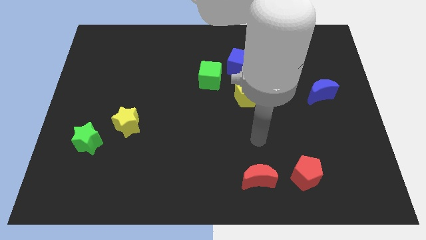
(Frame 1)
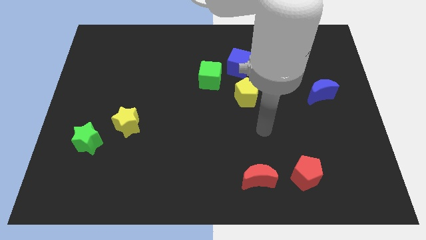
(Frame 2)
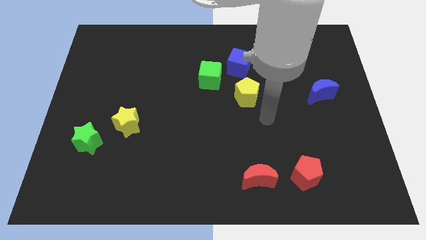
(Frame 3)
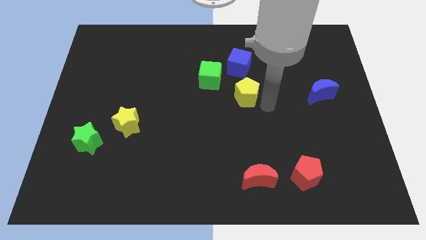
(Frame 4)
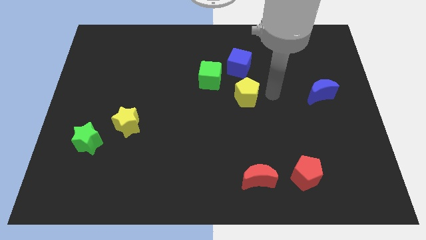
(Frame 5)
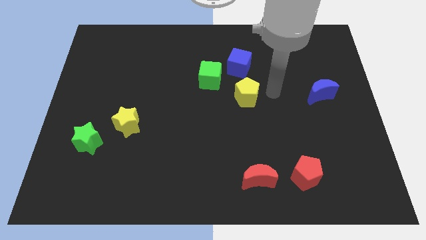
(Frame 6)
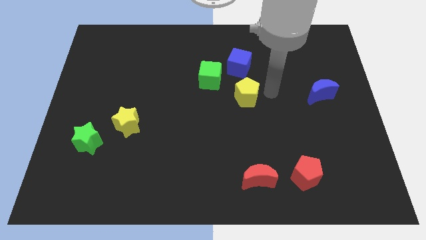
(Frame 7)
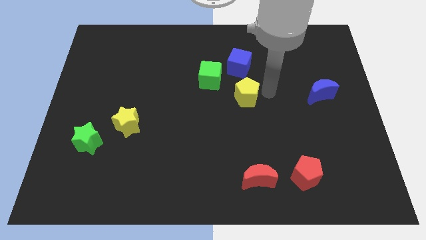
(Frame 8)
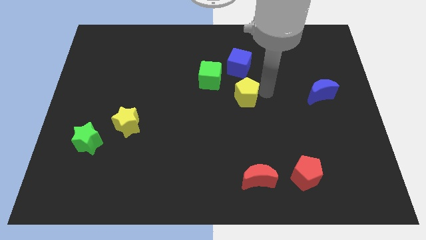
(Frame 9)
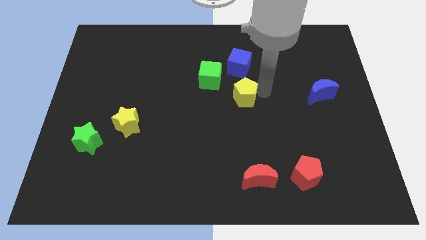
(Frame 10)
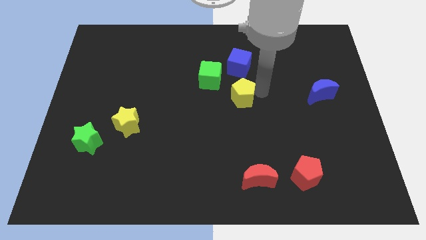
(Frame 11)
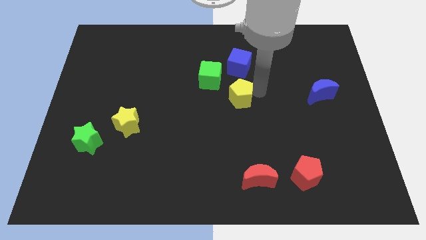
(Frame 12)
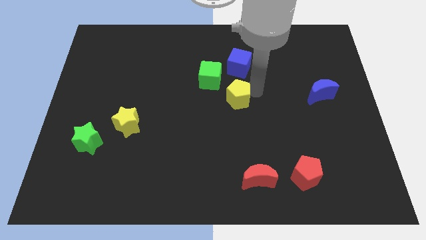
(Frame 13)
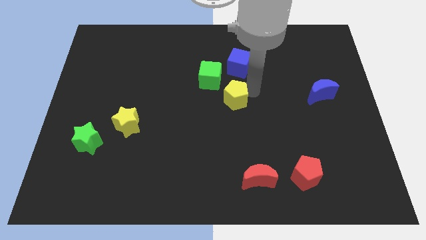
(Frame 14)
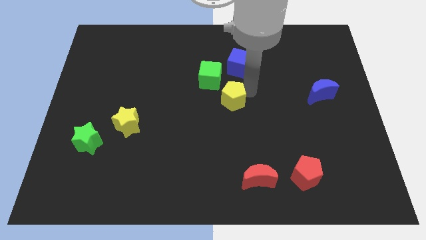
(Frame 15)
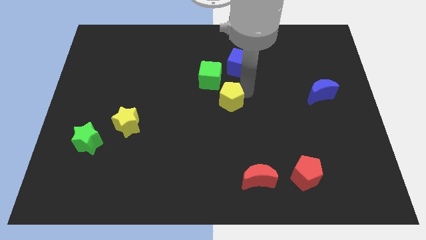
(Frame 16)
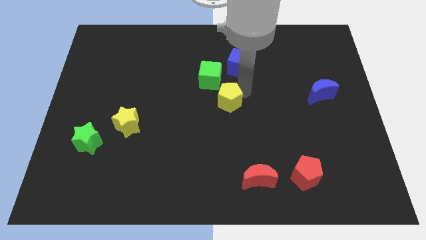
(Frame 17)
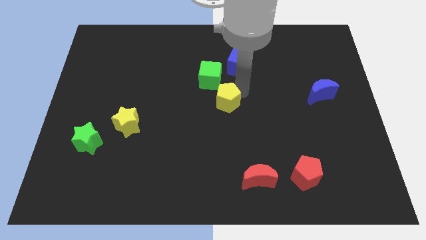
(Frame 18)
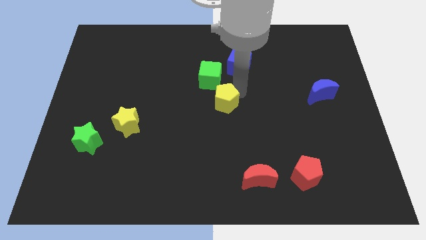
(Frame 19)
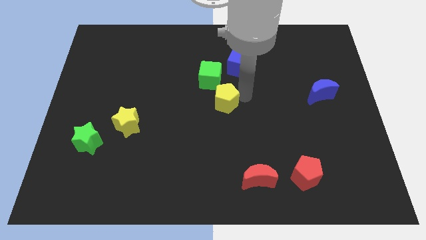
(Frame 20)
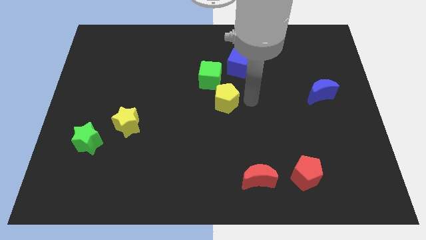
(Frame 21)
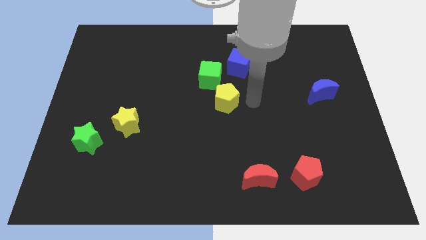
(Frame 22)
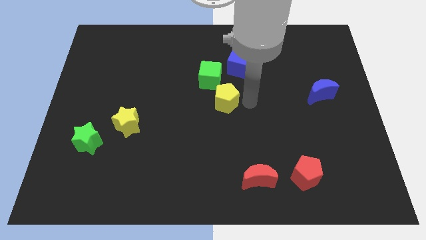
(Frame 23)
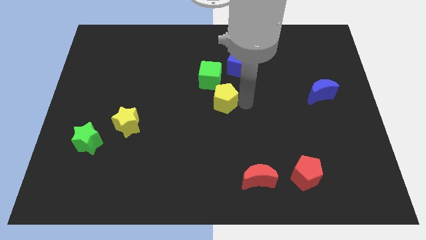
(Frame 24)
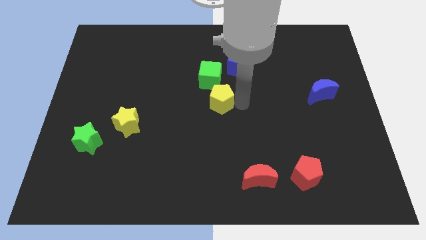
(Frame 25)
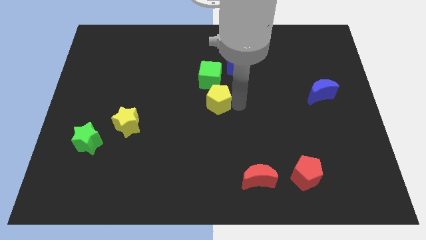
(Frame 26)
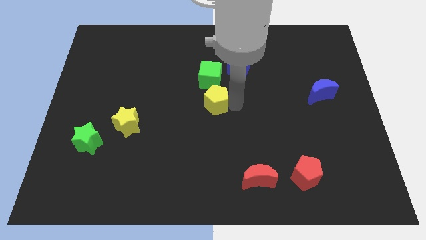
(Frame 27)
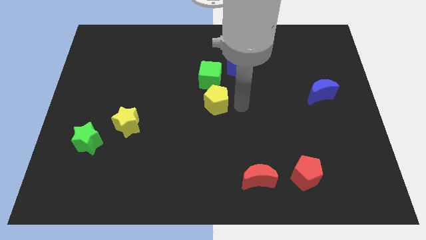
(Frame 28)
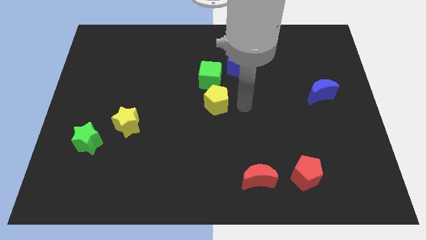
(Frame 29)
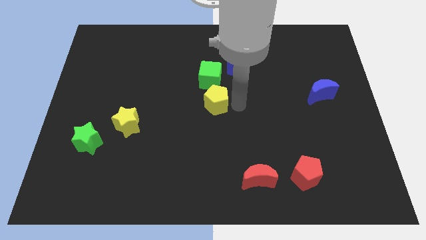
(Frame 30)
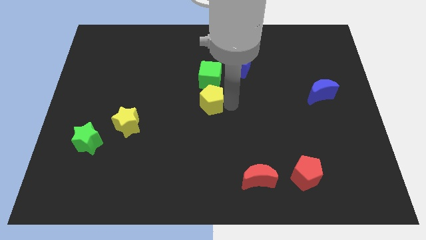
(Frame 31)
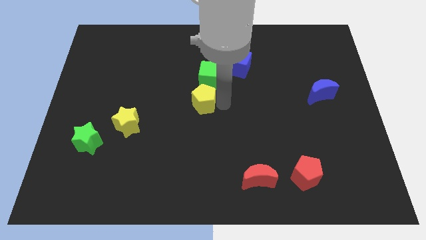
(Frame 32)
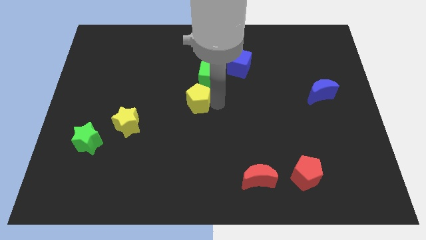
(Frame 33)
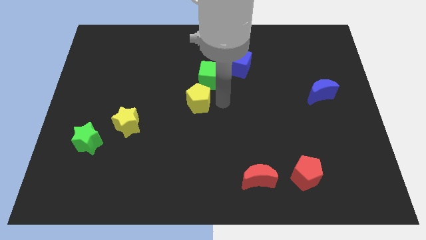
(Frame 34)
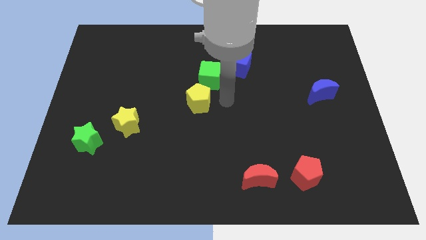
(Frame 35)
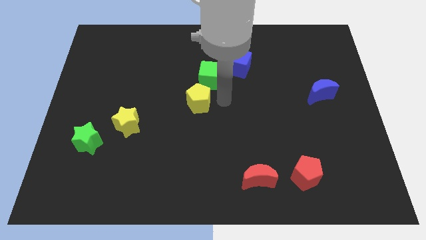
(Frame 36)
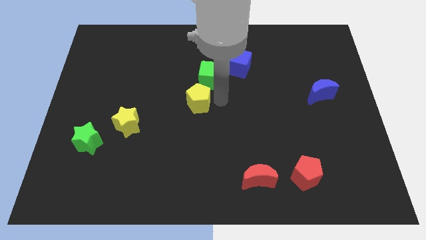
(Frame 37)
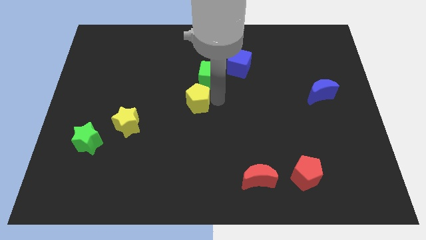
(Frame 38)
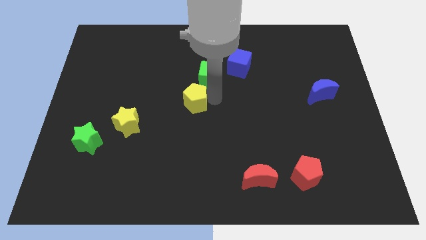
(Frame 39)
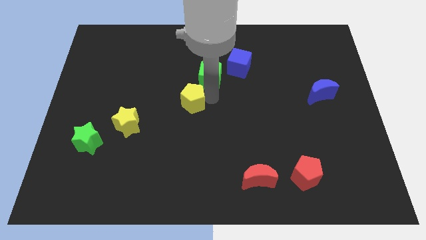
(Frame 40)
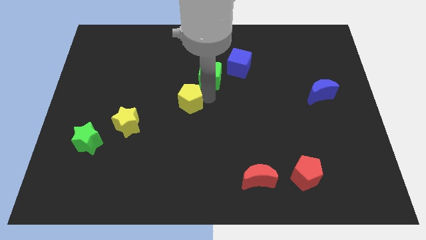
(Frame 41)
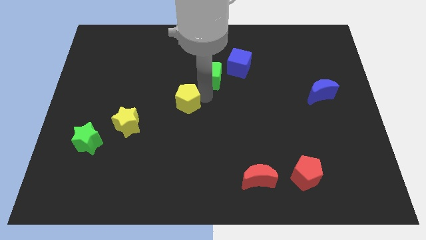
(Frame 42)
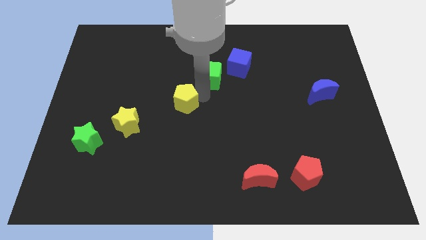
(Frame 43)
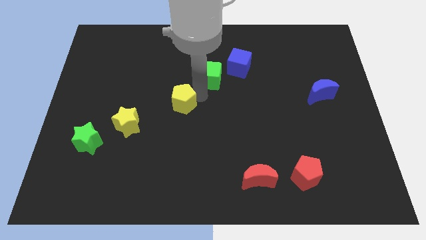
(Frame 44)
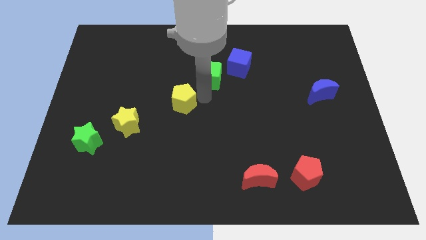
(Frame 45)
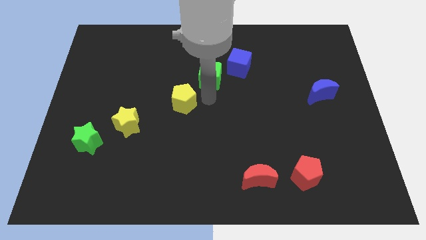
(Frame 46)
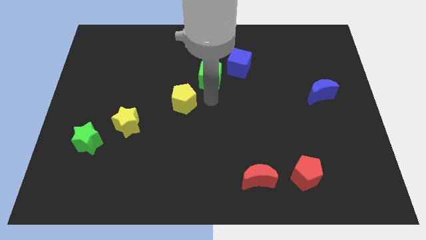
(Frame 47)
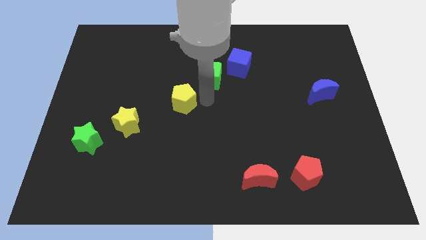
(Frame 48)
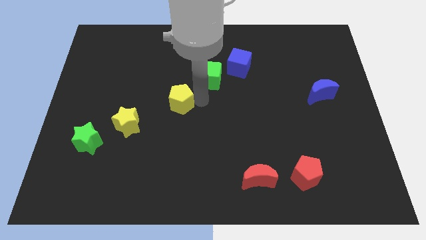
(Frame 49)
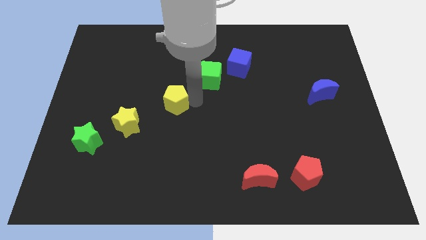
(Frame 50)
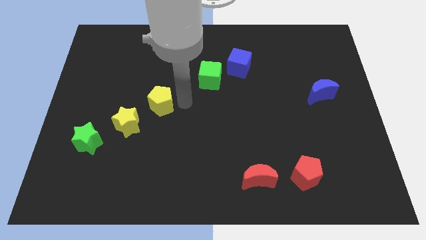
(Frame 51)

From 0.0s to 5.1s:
move the yellow pentagon to the left

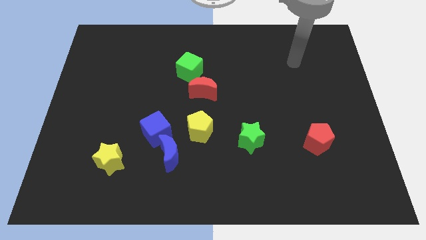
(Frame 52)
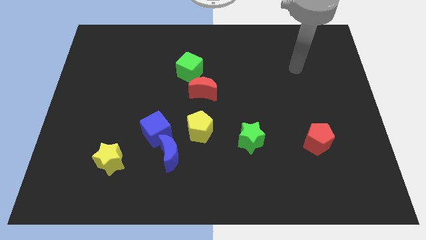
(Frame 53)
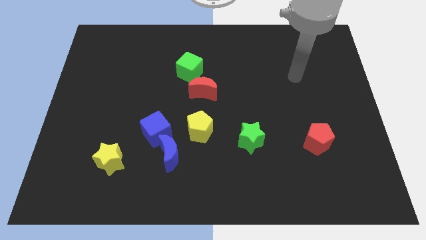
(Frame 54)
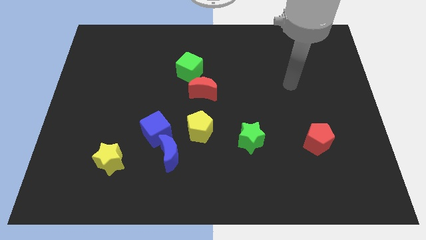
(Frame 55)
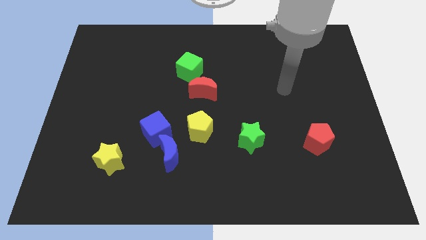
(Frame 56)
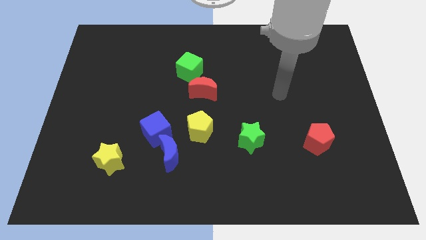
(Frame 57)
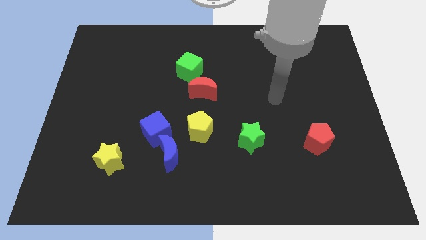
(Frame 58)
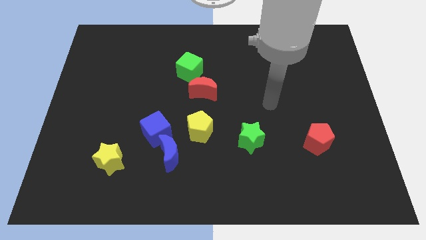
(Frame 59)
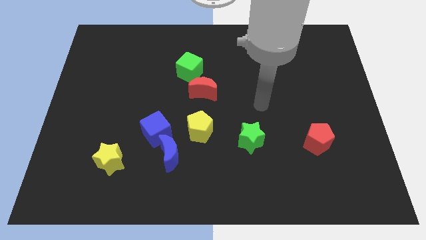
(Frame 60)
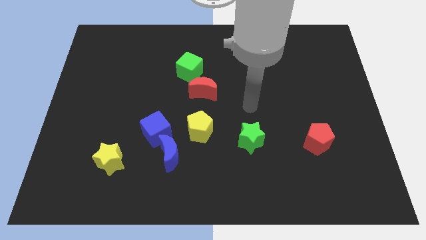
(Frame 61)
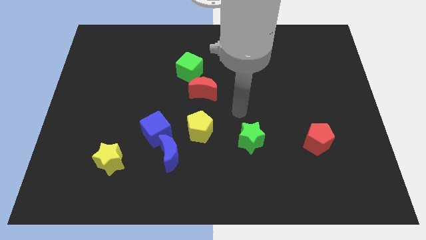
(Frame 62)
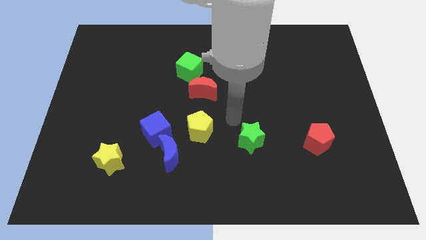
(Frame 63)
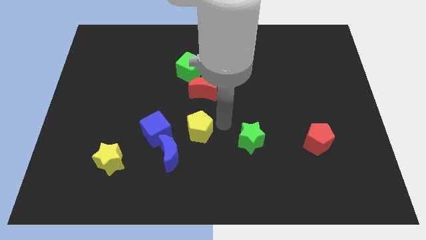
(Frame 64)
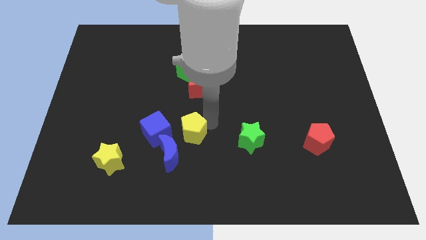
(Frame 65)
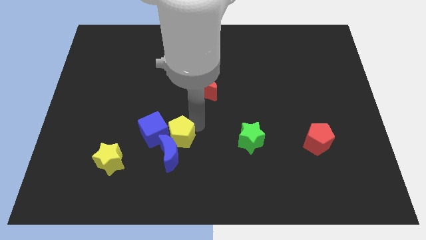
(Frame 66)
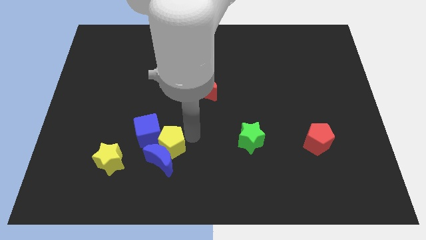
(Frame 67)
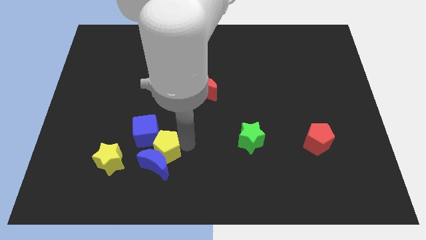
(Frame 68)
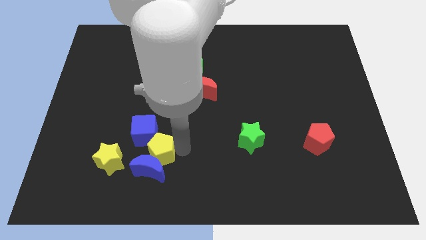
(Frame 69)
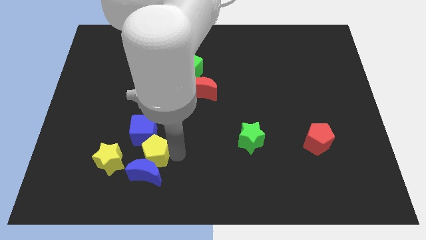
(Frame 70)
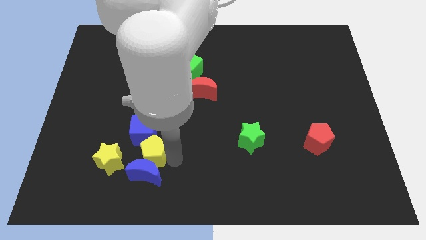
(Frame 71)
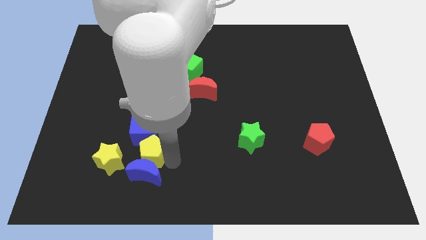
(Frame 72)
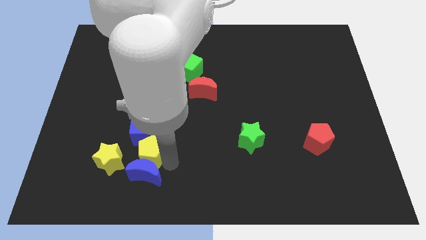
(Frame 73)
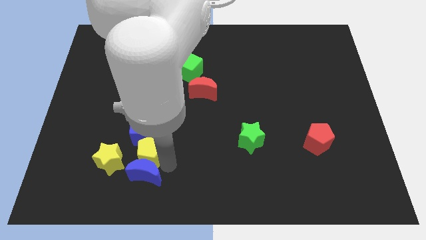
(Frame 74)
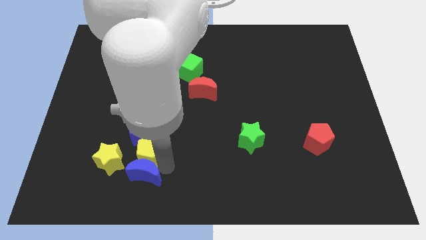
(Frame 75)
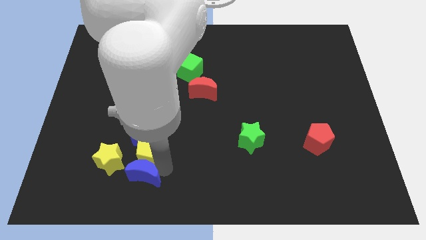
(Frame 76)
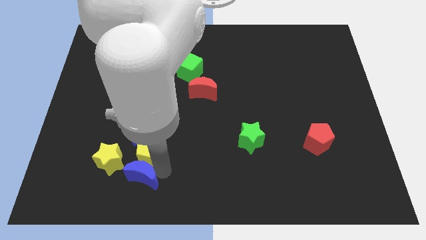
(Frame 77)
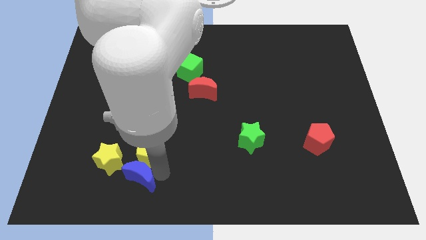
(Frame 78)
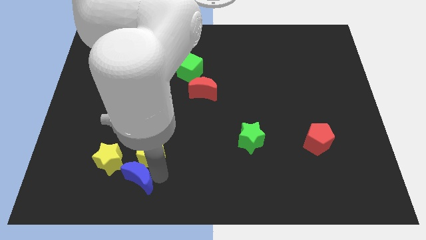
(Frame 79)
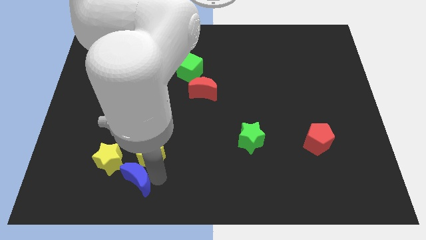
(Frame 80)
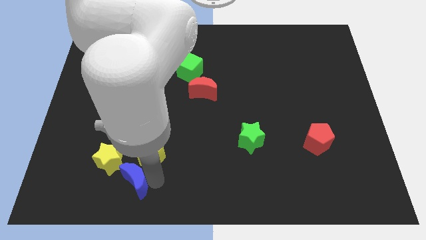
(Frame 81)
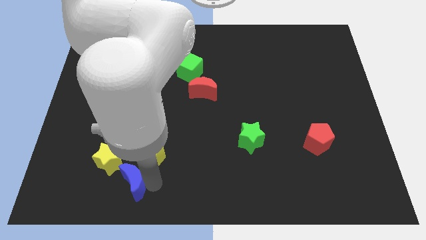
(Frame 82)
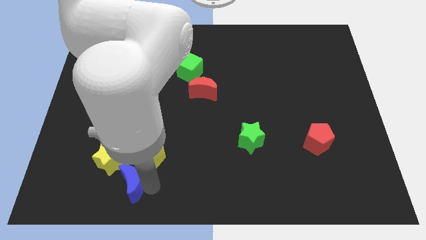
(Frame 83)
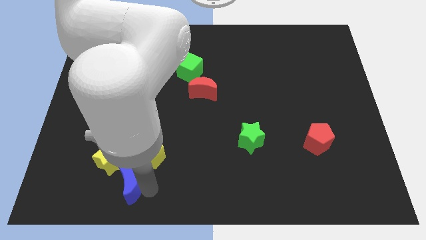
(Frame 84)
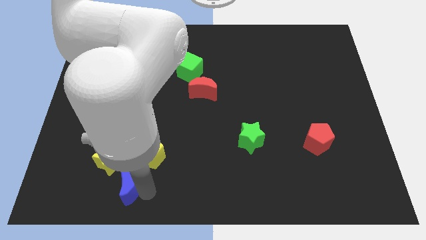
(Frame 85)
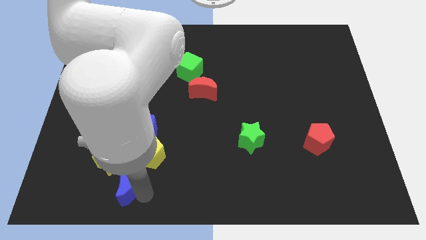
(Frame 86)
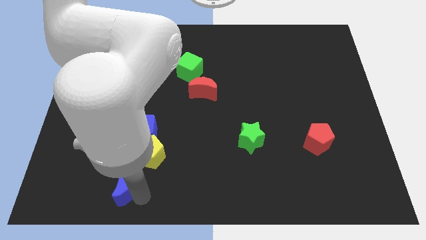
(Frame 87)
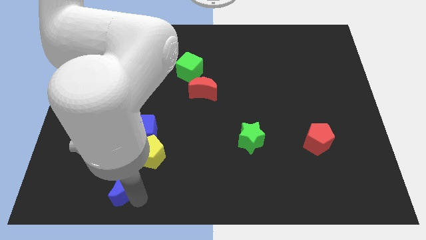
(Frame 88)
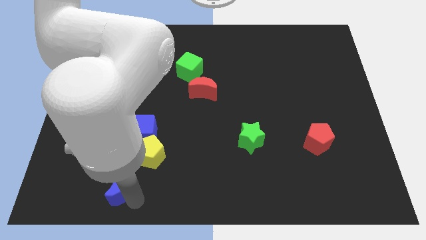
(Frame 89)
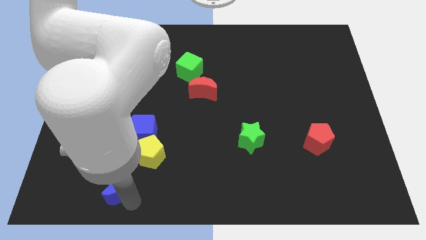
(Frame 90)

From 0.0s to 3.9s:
move the blue moon somewhat to the left
